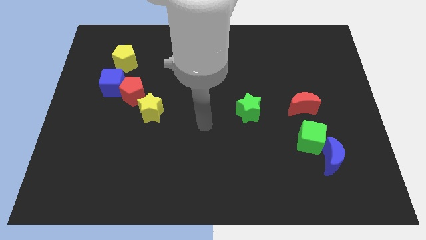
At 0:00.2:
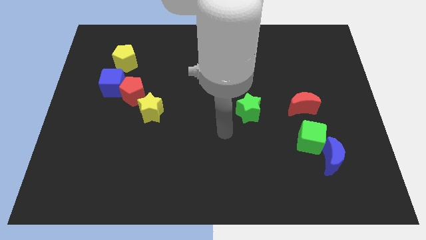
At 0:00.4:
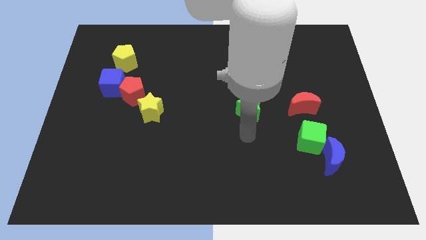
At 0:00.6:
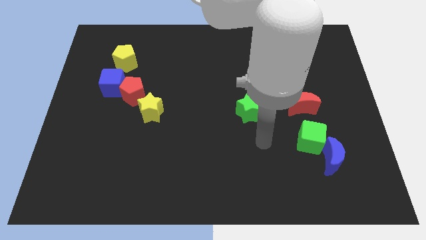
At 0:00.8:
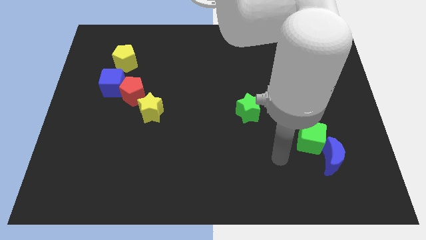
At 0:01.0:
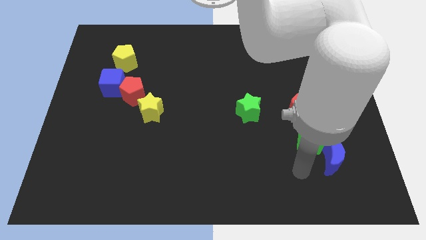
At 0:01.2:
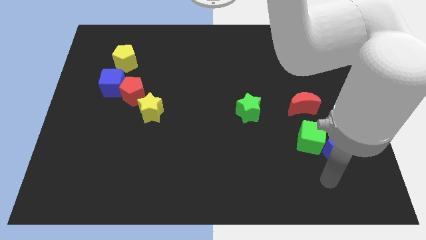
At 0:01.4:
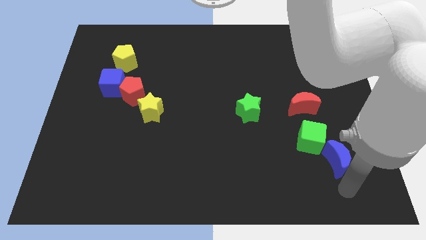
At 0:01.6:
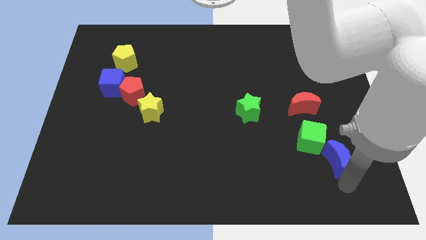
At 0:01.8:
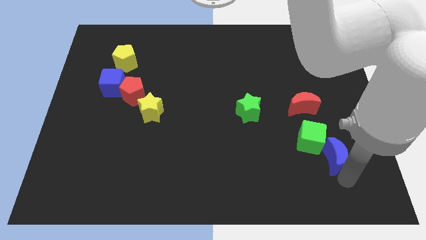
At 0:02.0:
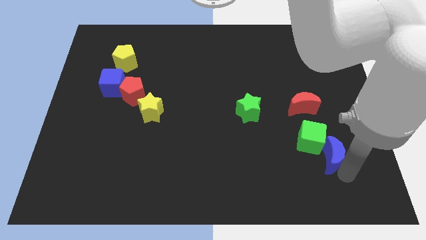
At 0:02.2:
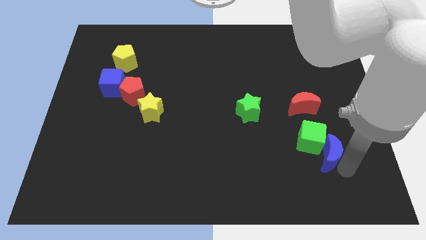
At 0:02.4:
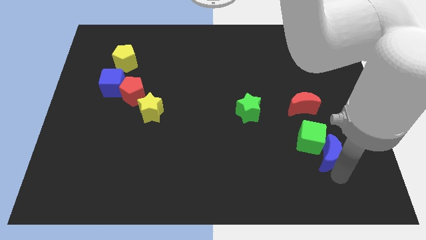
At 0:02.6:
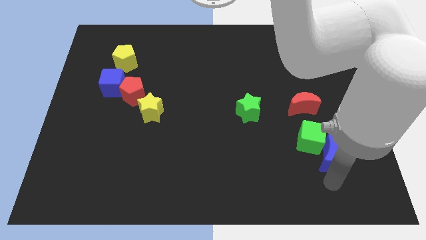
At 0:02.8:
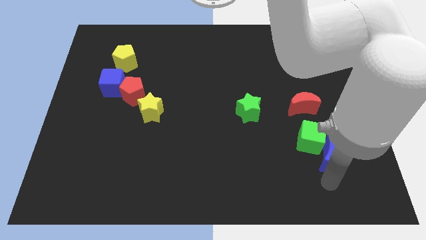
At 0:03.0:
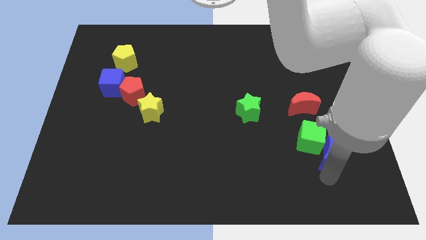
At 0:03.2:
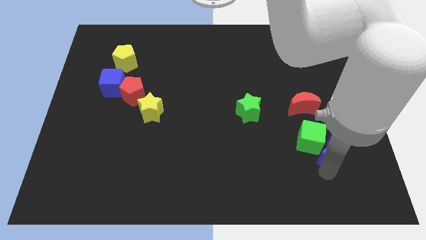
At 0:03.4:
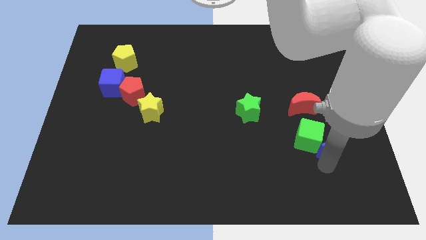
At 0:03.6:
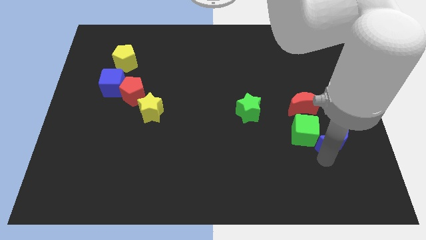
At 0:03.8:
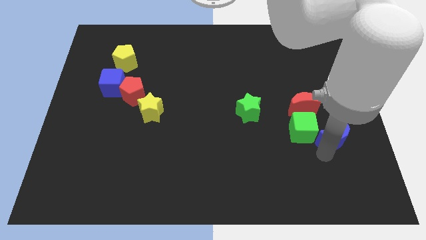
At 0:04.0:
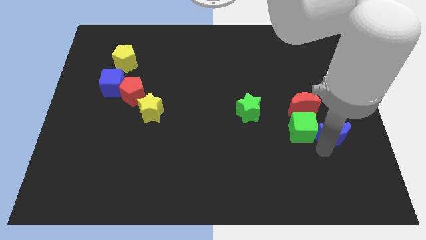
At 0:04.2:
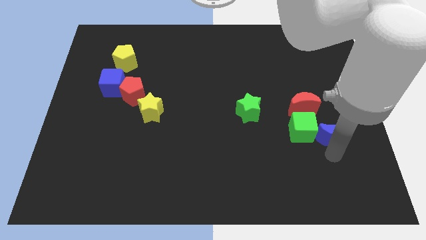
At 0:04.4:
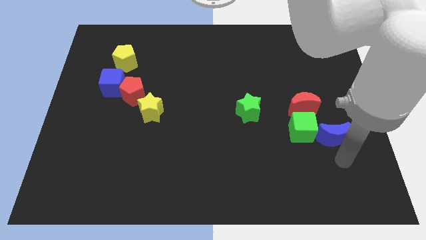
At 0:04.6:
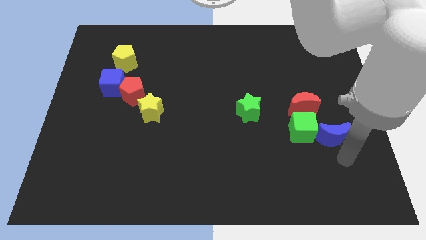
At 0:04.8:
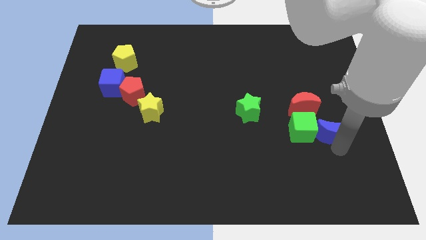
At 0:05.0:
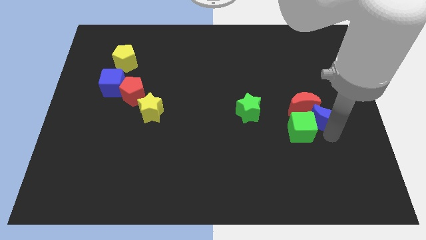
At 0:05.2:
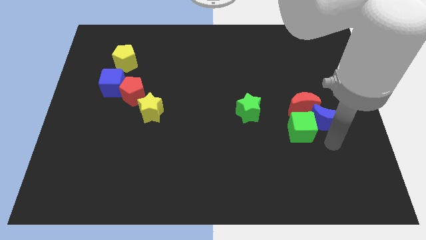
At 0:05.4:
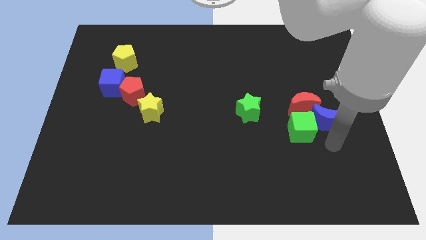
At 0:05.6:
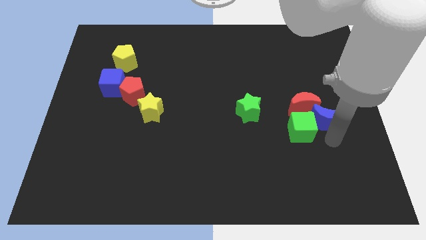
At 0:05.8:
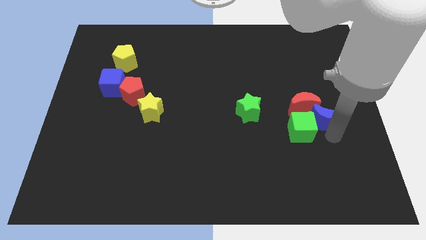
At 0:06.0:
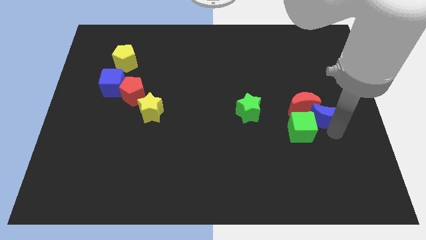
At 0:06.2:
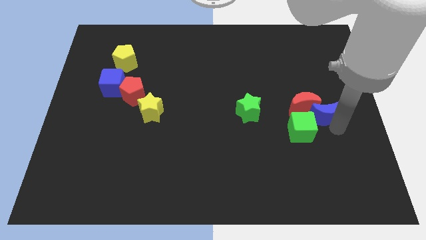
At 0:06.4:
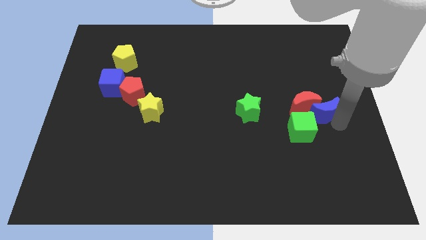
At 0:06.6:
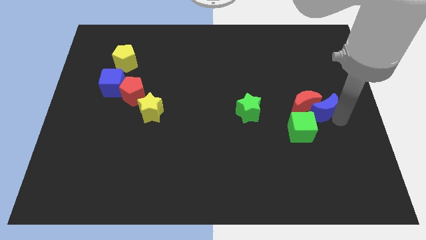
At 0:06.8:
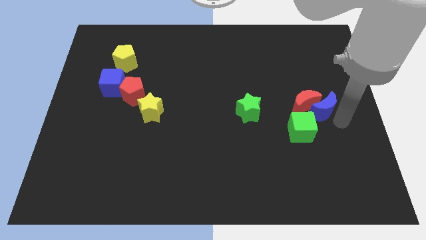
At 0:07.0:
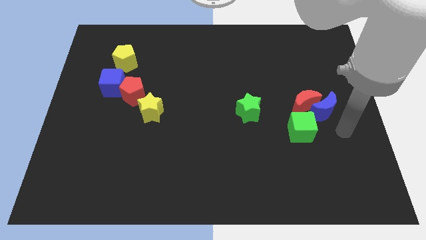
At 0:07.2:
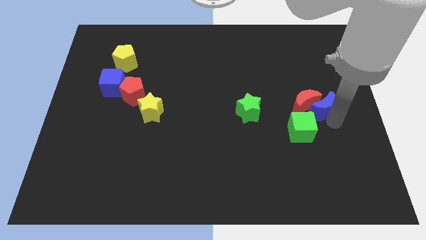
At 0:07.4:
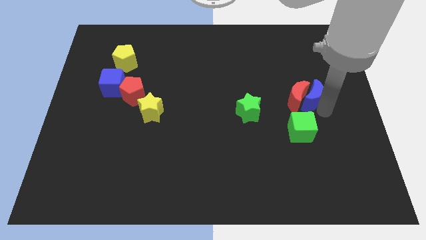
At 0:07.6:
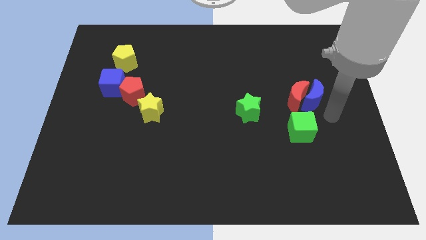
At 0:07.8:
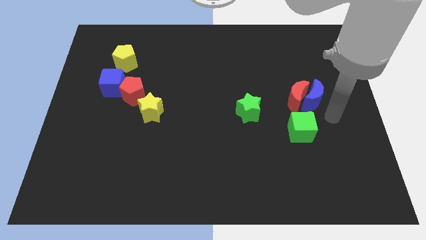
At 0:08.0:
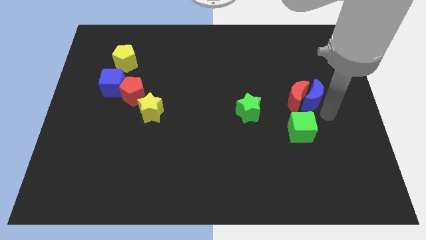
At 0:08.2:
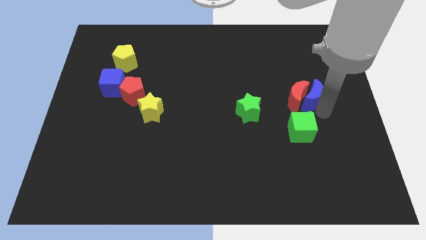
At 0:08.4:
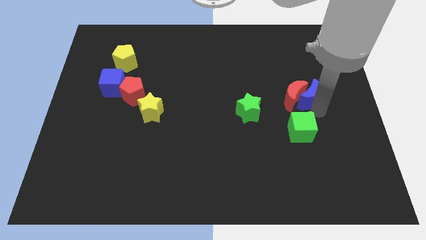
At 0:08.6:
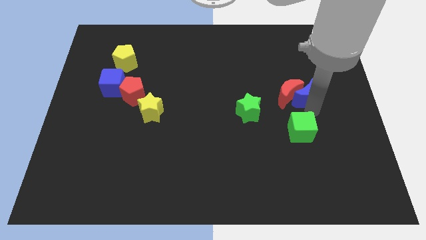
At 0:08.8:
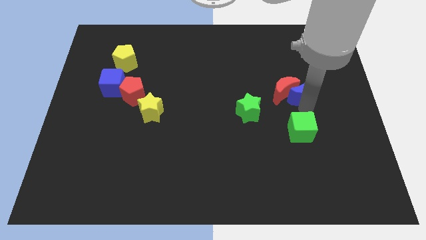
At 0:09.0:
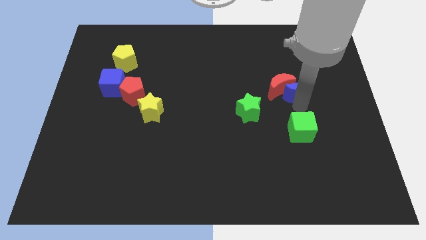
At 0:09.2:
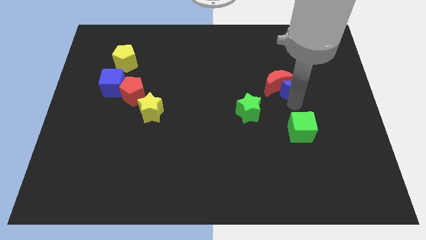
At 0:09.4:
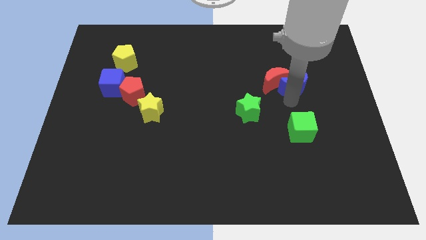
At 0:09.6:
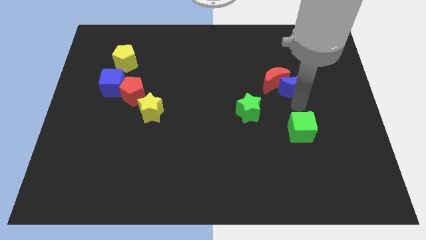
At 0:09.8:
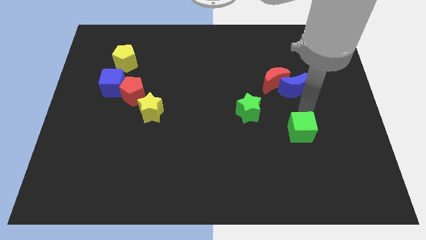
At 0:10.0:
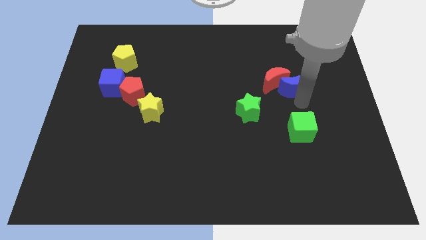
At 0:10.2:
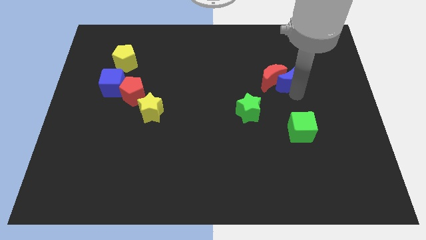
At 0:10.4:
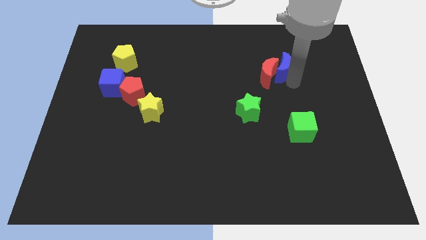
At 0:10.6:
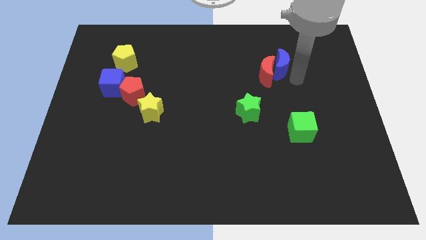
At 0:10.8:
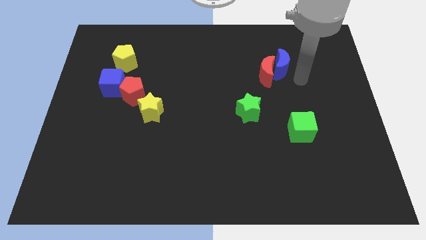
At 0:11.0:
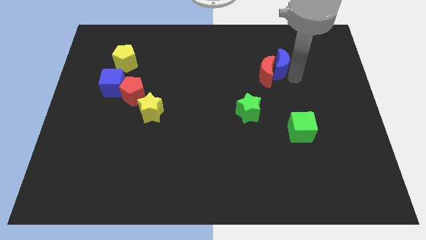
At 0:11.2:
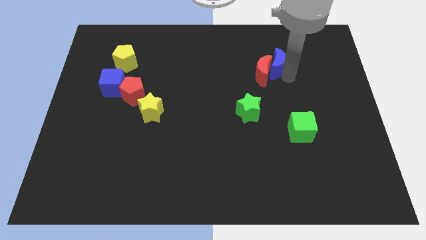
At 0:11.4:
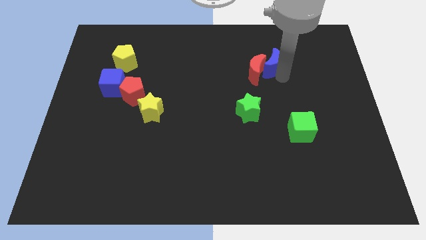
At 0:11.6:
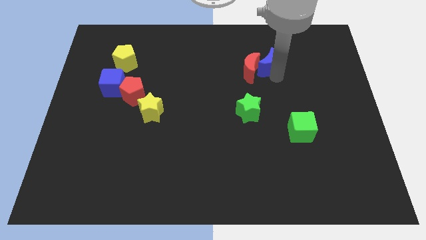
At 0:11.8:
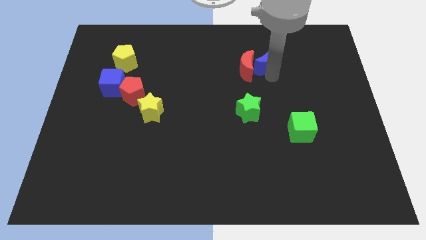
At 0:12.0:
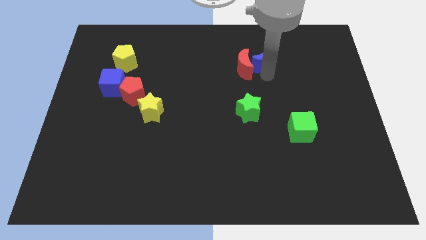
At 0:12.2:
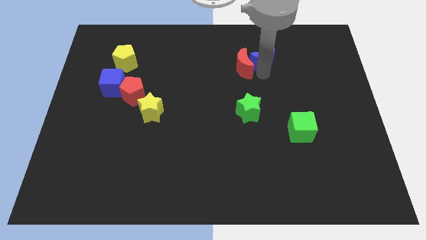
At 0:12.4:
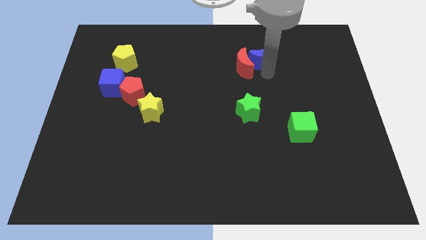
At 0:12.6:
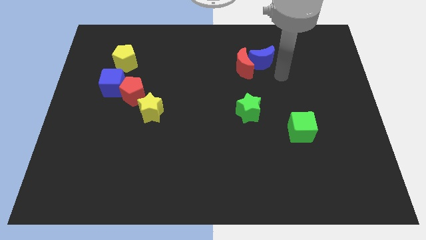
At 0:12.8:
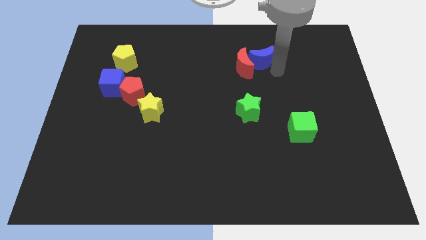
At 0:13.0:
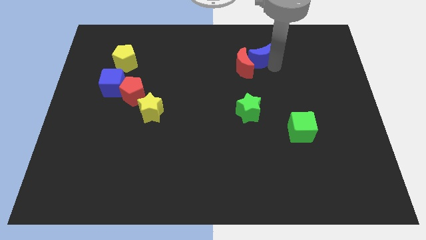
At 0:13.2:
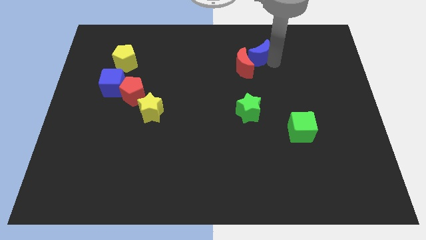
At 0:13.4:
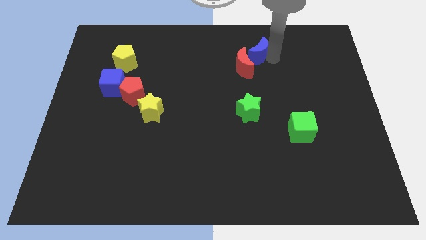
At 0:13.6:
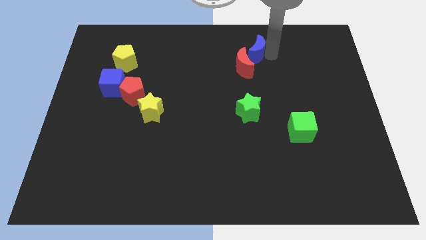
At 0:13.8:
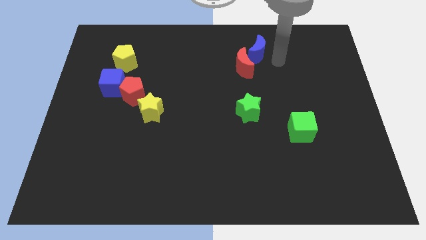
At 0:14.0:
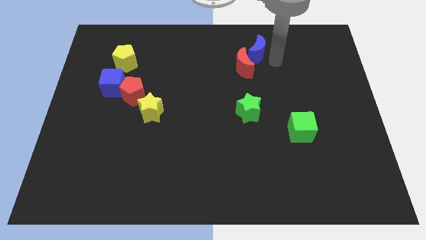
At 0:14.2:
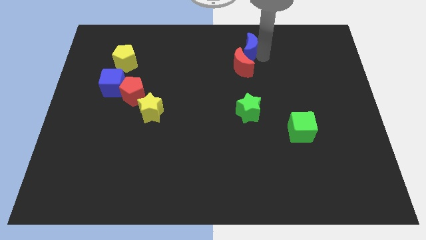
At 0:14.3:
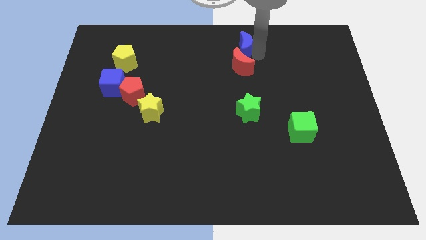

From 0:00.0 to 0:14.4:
slide the blue moon to the top
